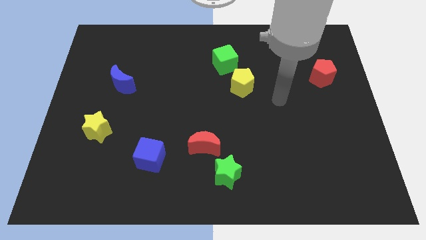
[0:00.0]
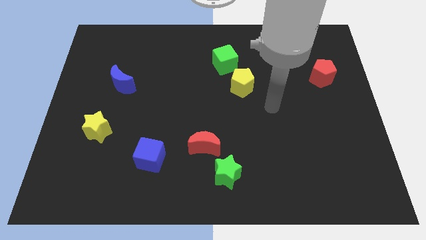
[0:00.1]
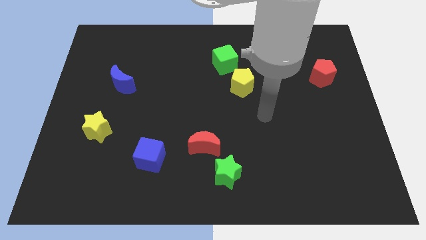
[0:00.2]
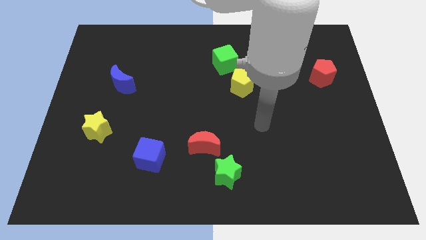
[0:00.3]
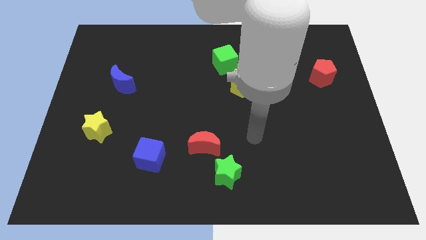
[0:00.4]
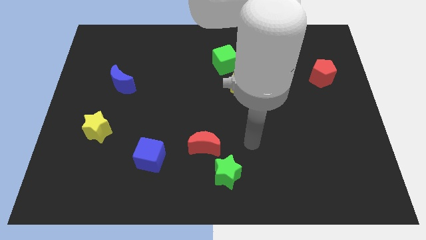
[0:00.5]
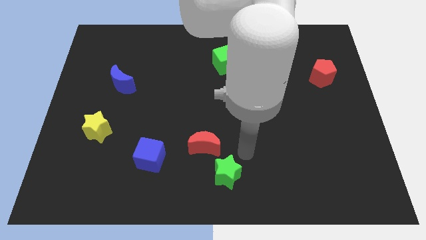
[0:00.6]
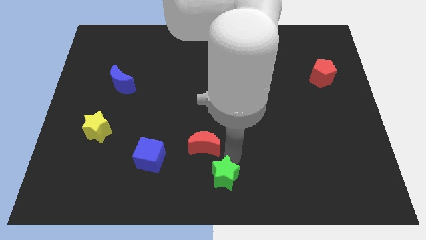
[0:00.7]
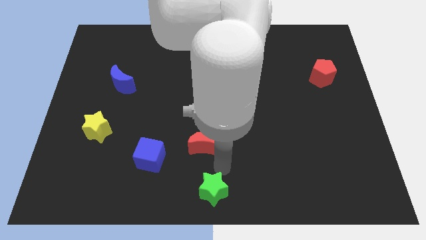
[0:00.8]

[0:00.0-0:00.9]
pull the red moon apart from the green star

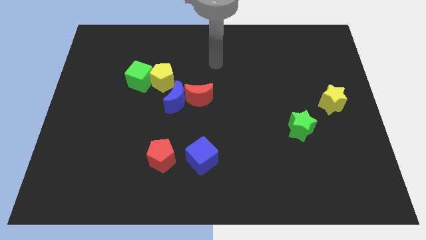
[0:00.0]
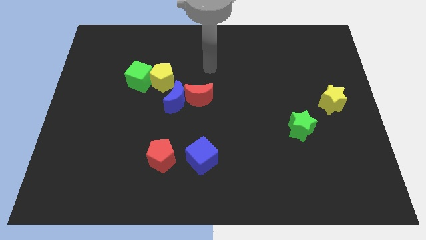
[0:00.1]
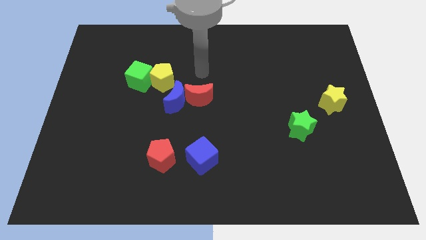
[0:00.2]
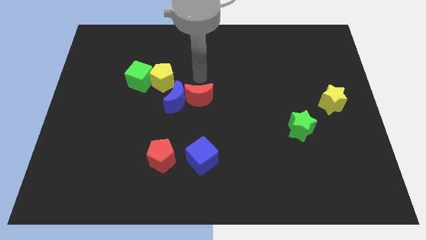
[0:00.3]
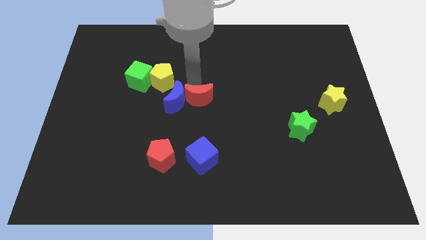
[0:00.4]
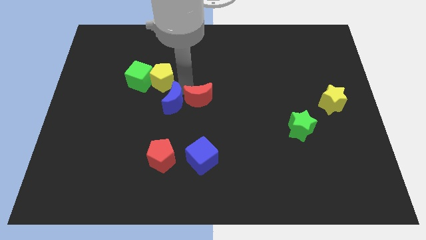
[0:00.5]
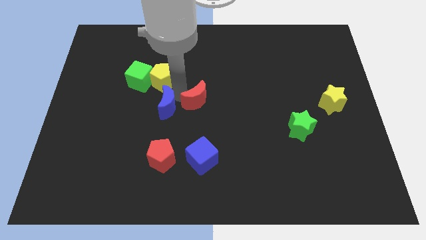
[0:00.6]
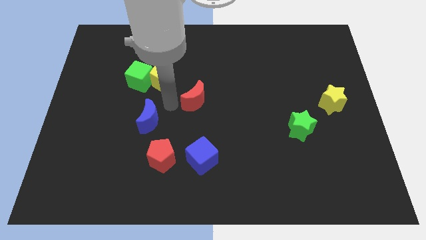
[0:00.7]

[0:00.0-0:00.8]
move the red moon away from the blue moon

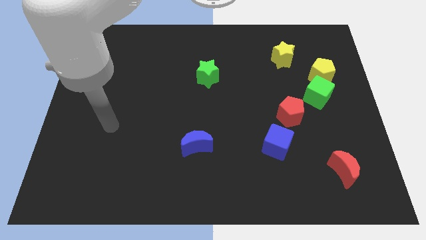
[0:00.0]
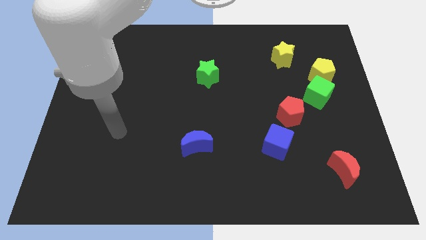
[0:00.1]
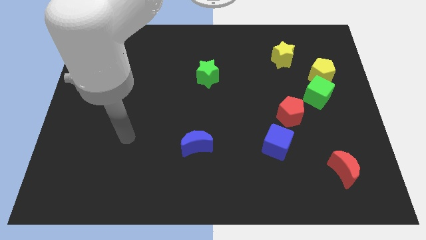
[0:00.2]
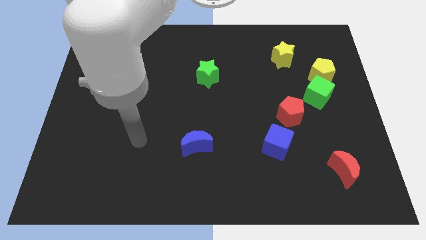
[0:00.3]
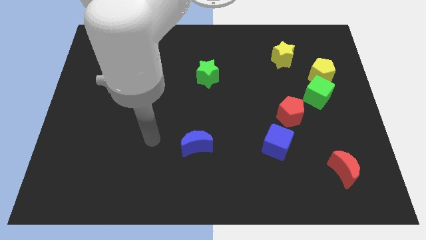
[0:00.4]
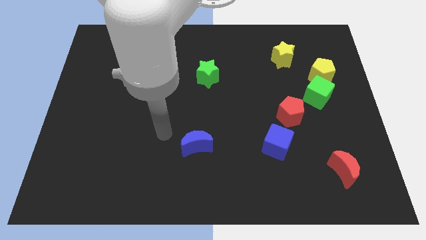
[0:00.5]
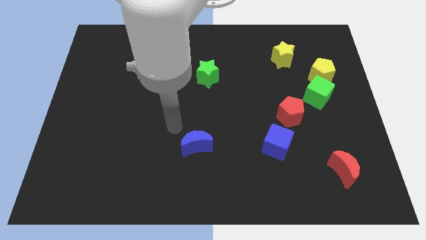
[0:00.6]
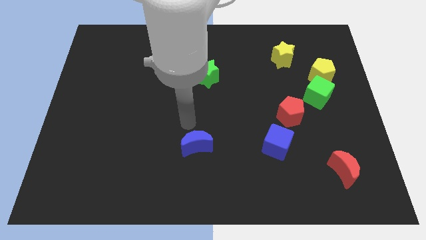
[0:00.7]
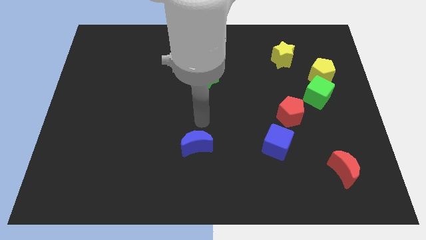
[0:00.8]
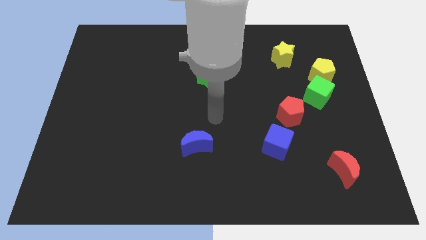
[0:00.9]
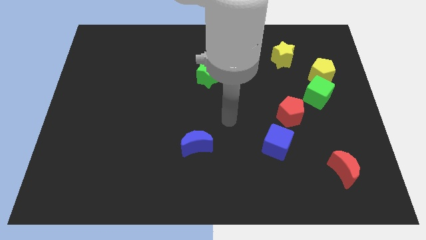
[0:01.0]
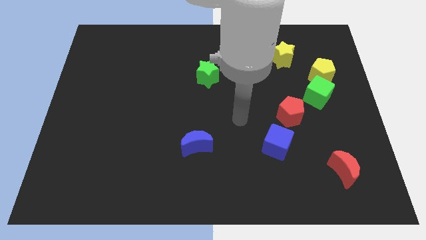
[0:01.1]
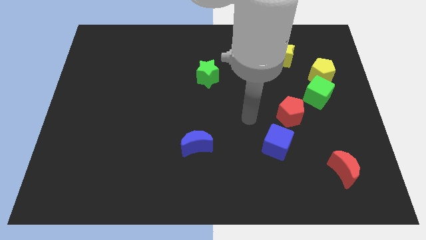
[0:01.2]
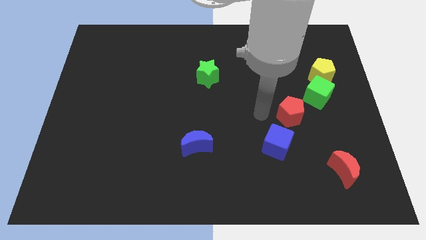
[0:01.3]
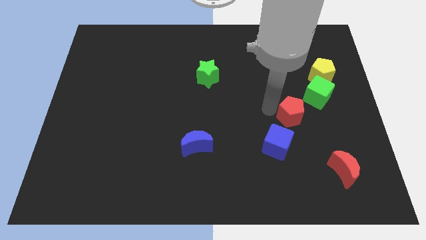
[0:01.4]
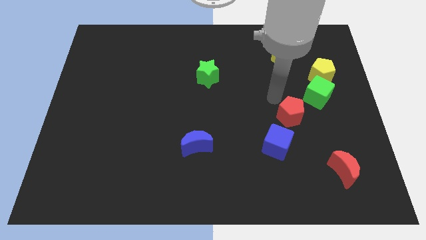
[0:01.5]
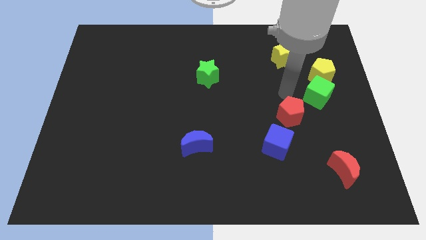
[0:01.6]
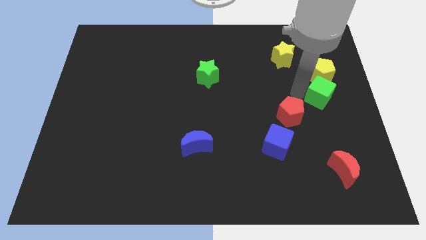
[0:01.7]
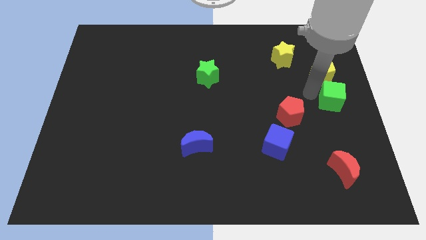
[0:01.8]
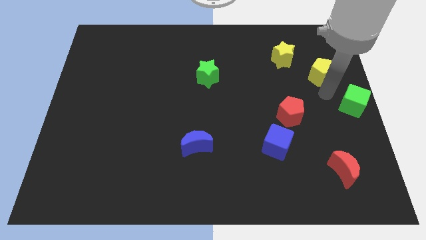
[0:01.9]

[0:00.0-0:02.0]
pull the yellow pentagon apart from the green cube

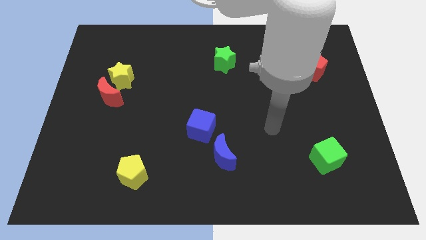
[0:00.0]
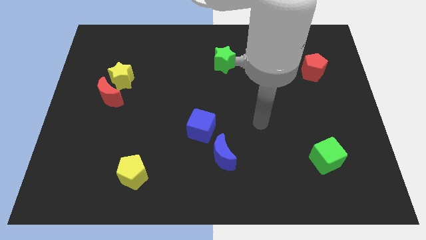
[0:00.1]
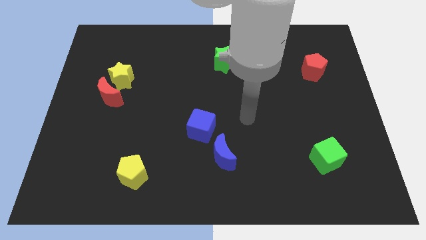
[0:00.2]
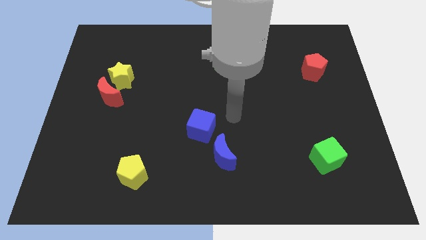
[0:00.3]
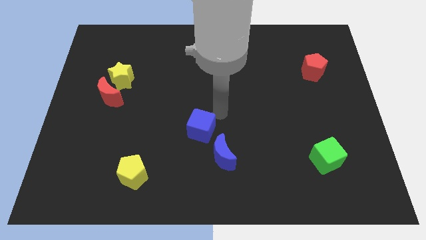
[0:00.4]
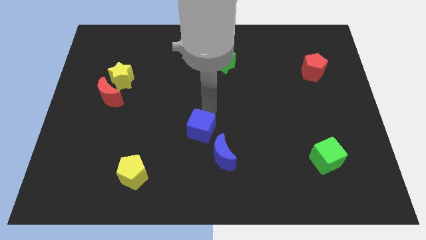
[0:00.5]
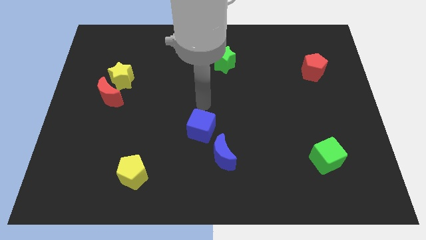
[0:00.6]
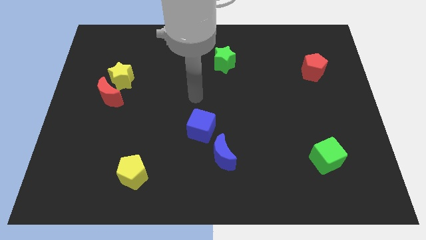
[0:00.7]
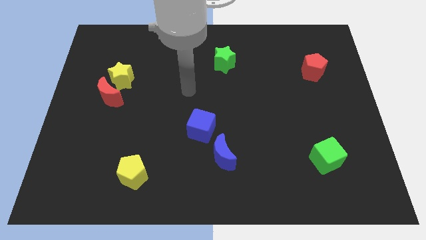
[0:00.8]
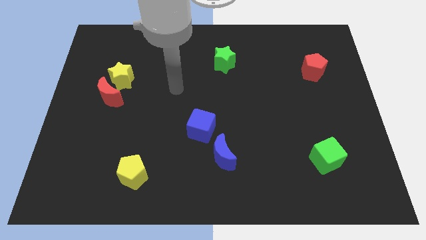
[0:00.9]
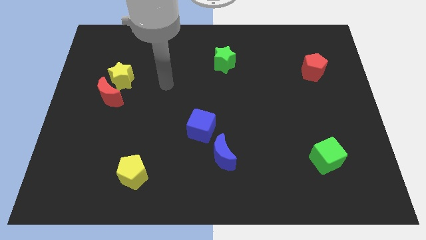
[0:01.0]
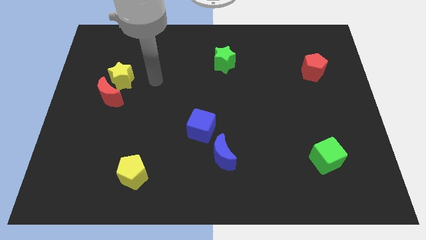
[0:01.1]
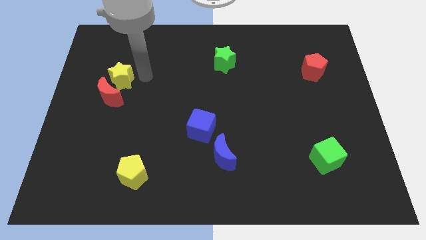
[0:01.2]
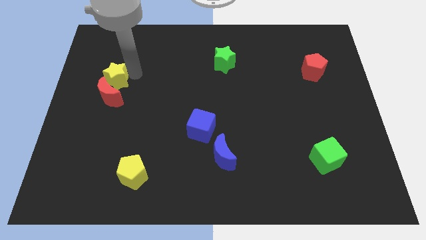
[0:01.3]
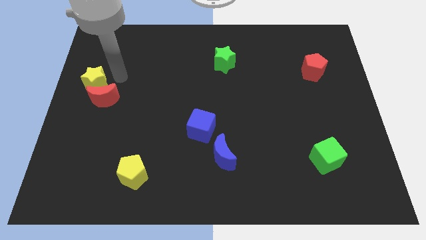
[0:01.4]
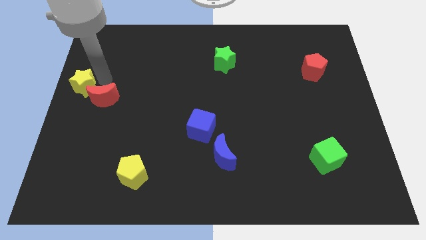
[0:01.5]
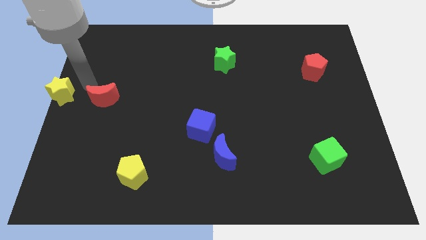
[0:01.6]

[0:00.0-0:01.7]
pull the red moon apart from the yellow star

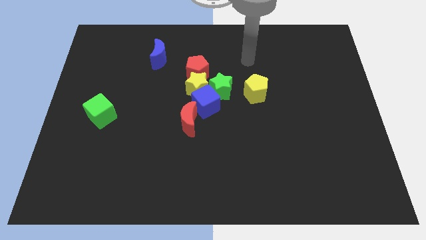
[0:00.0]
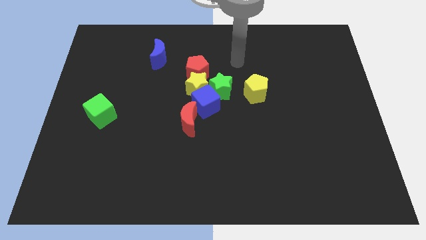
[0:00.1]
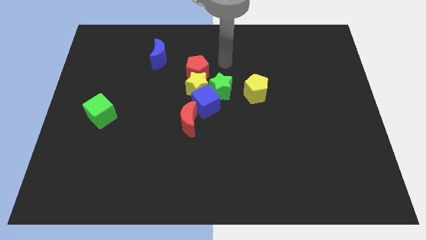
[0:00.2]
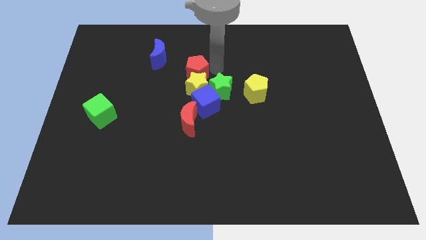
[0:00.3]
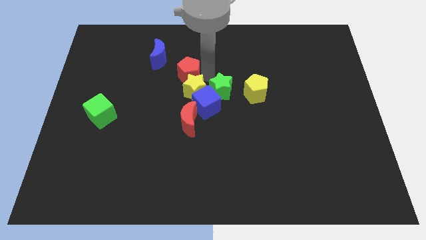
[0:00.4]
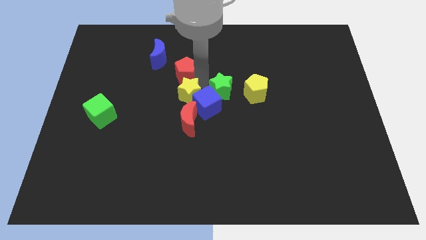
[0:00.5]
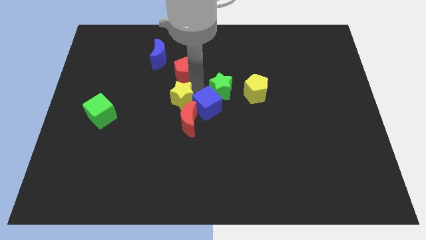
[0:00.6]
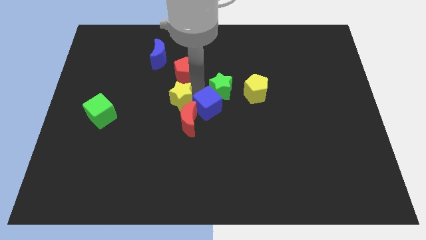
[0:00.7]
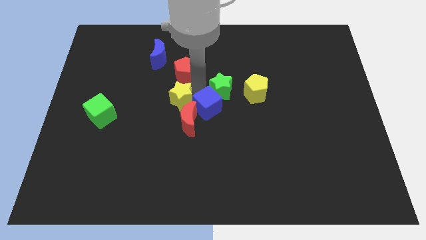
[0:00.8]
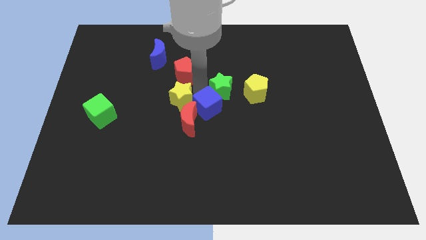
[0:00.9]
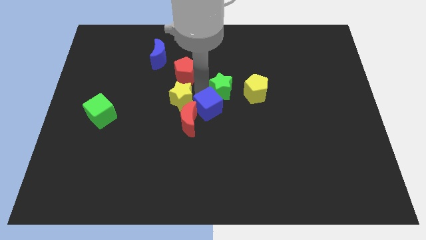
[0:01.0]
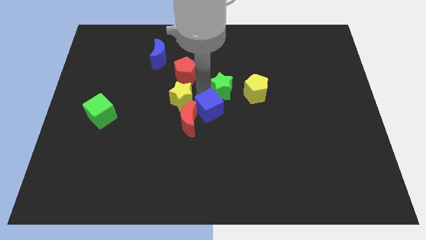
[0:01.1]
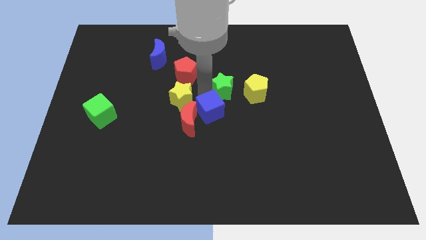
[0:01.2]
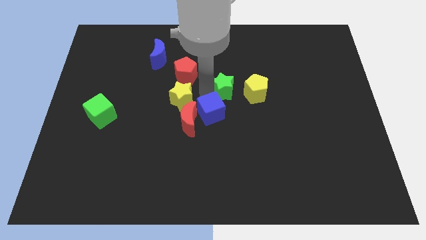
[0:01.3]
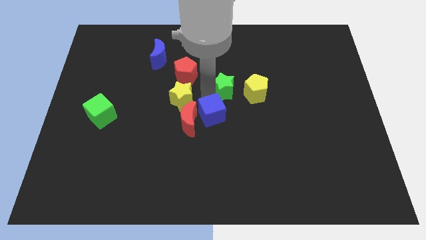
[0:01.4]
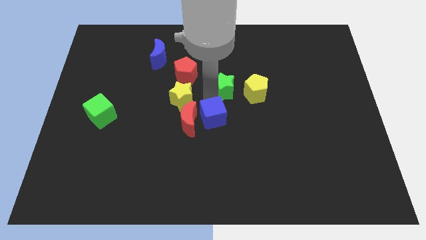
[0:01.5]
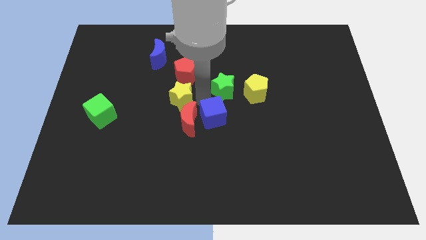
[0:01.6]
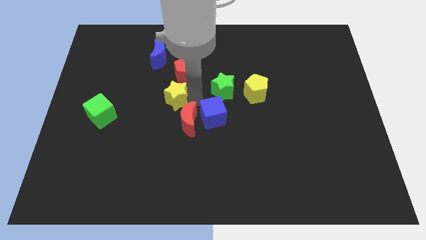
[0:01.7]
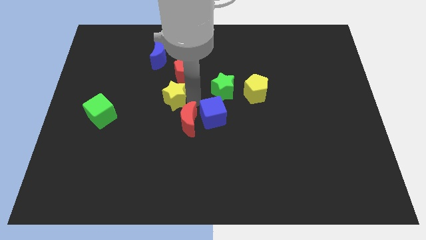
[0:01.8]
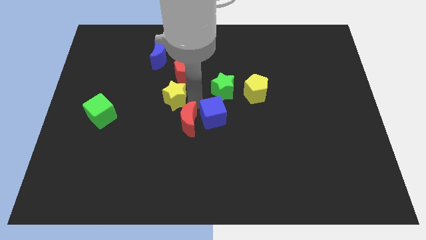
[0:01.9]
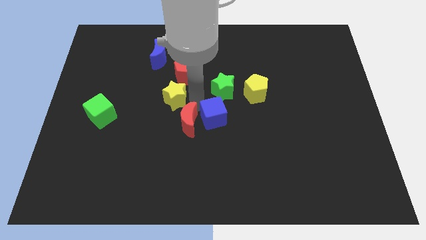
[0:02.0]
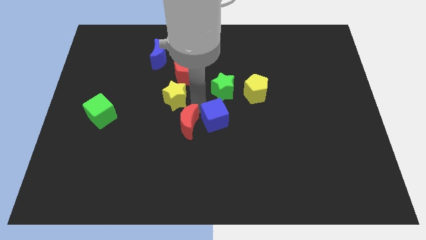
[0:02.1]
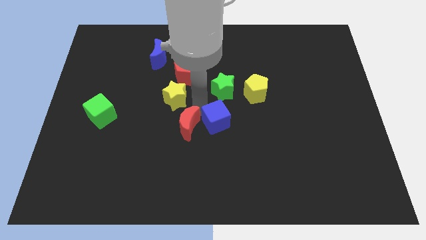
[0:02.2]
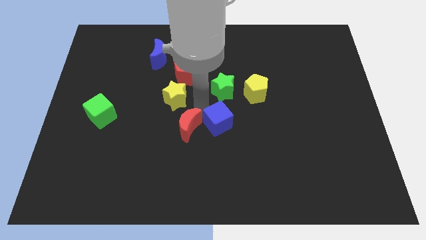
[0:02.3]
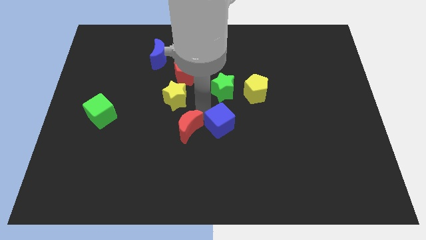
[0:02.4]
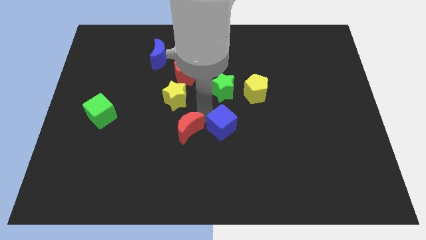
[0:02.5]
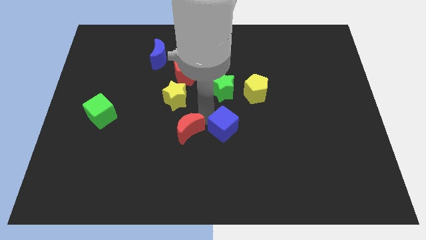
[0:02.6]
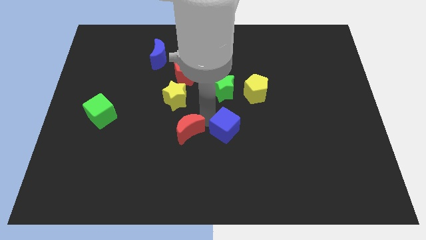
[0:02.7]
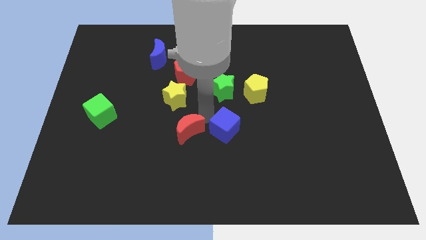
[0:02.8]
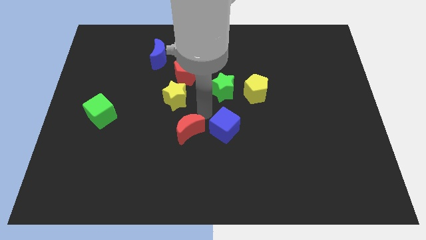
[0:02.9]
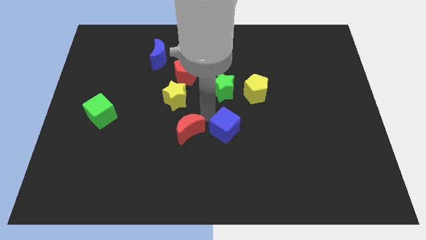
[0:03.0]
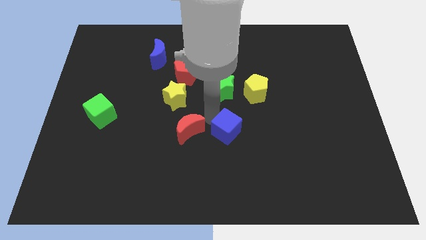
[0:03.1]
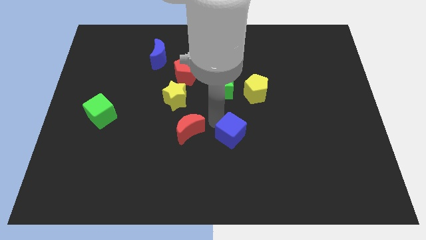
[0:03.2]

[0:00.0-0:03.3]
pull the blue cube apart from the yellow star, green star, and red moon

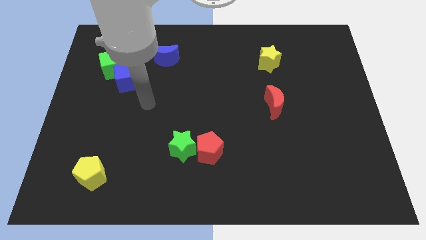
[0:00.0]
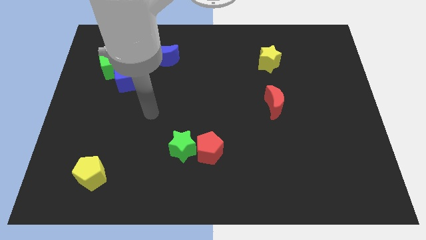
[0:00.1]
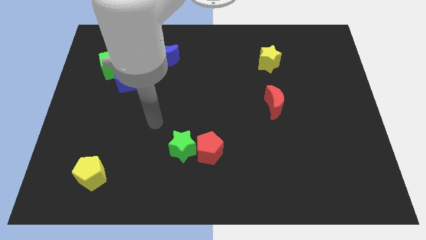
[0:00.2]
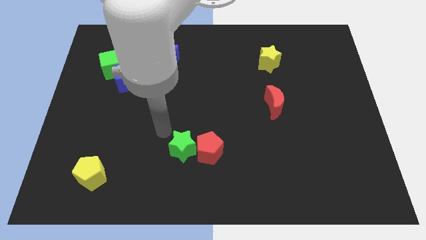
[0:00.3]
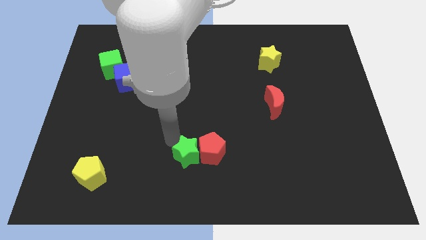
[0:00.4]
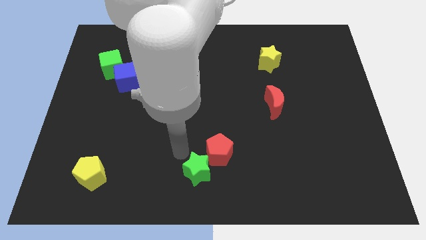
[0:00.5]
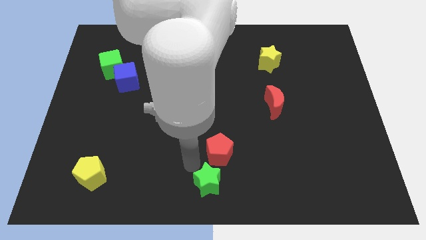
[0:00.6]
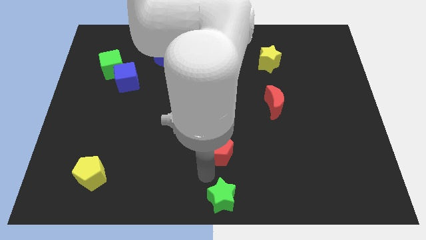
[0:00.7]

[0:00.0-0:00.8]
pull the red pentagon apart from the green star
